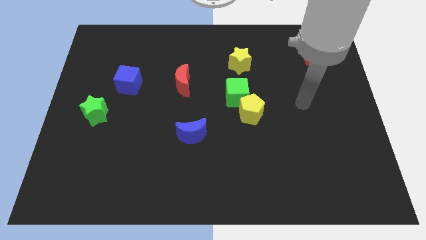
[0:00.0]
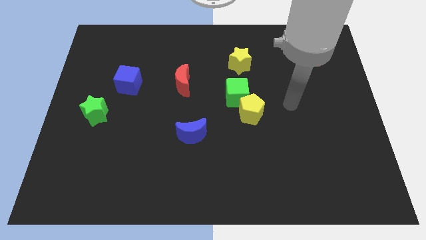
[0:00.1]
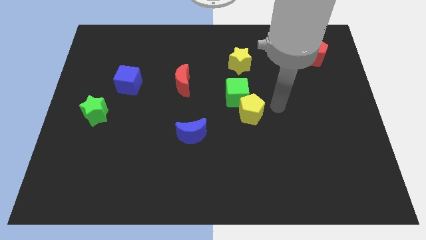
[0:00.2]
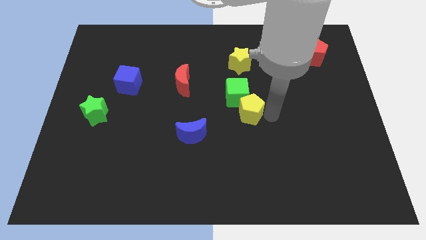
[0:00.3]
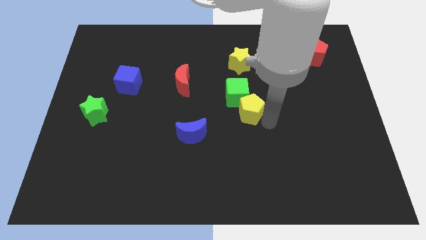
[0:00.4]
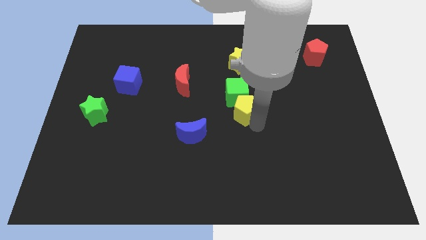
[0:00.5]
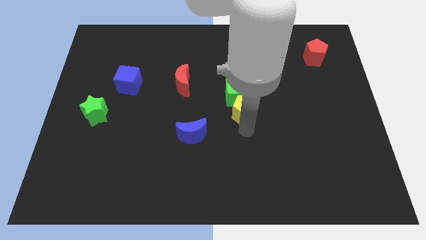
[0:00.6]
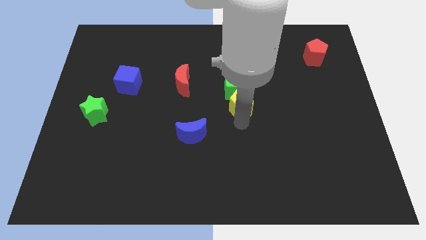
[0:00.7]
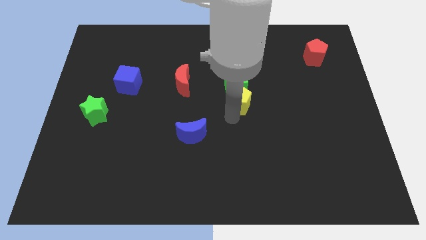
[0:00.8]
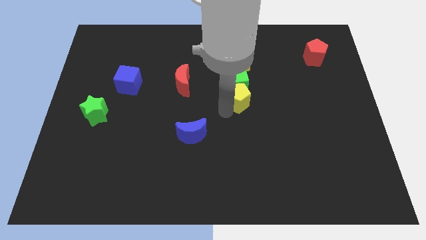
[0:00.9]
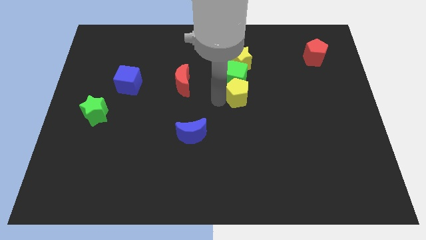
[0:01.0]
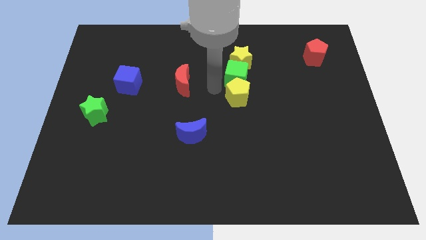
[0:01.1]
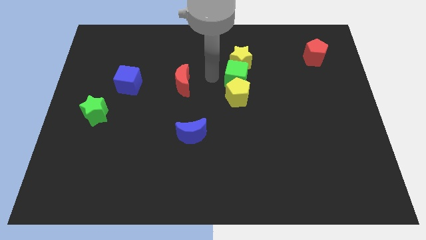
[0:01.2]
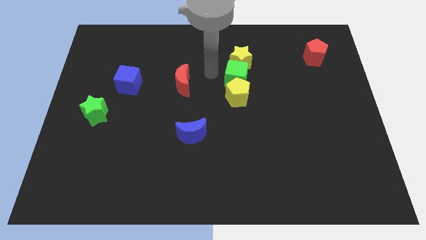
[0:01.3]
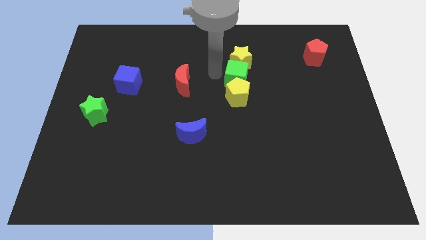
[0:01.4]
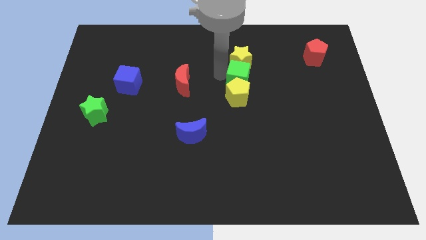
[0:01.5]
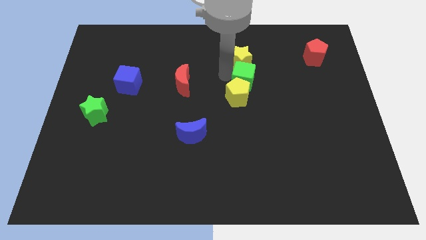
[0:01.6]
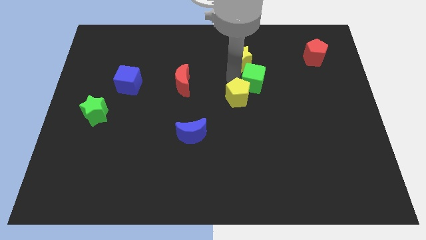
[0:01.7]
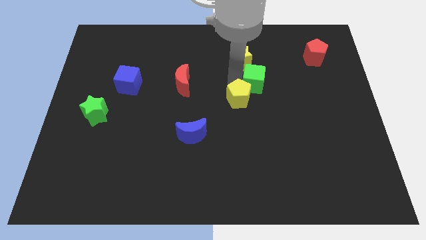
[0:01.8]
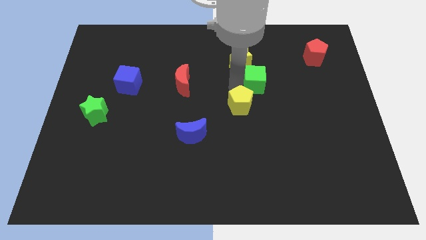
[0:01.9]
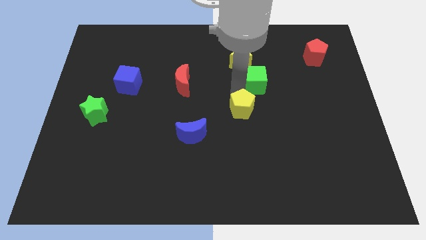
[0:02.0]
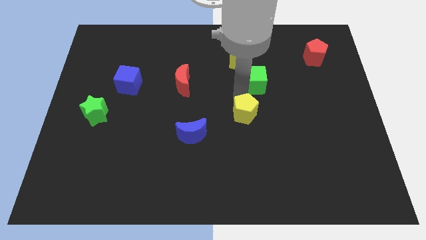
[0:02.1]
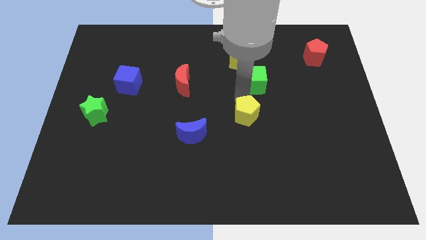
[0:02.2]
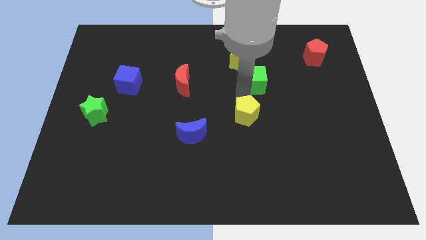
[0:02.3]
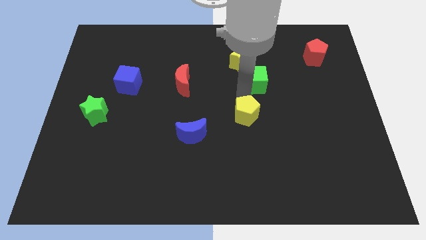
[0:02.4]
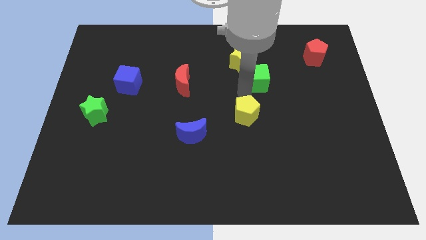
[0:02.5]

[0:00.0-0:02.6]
slightly slide the green cube diagonally upwards and right

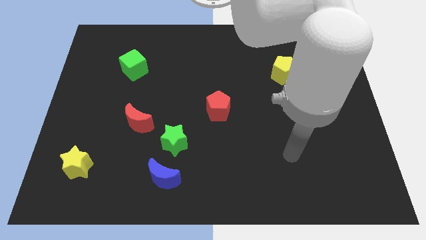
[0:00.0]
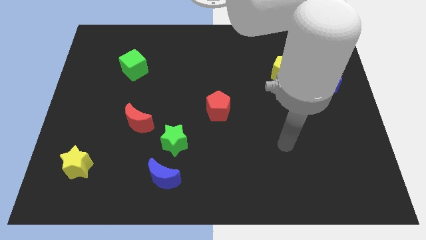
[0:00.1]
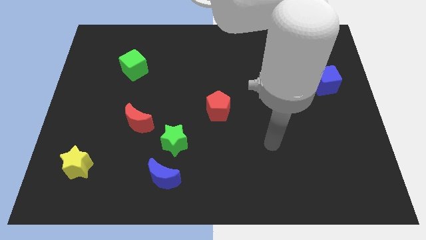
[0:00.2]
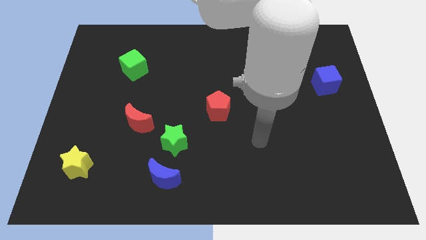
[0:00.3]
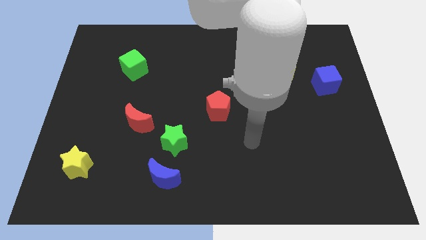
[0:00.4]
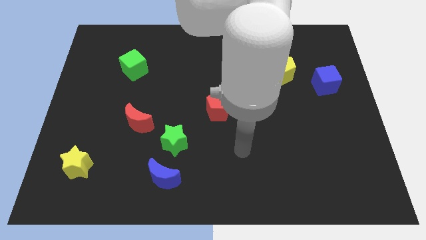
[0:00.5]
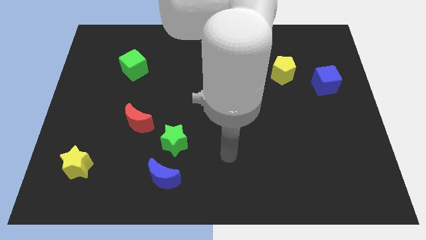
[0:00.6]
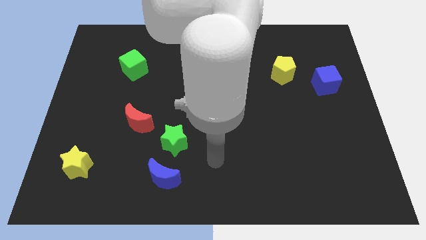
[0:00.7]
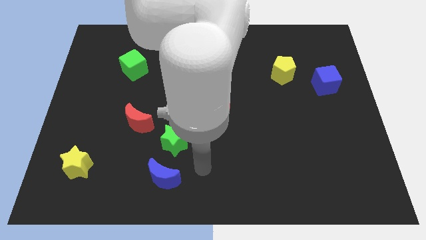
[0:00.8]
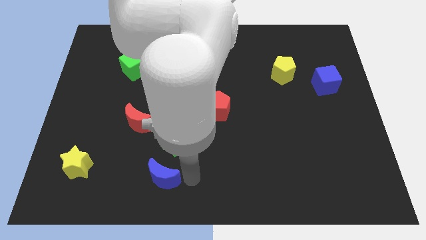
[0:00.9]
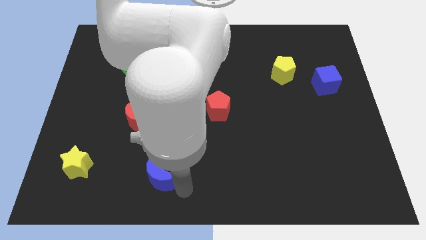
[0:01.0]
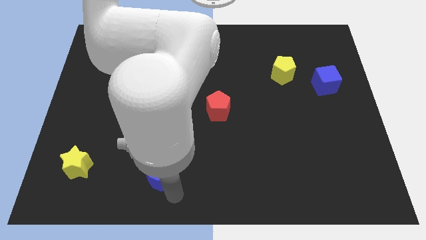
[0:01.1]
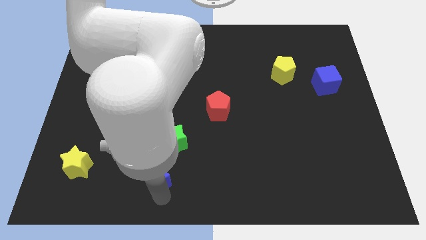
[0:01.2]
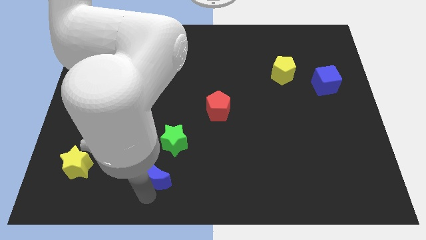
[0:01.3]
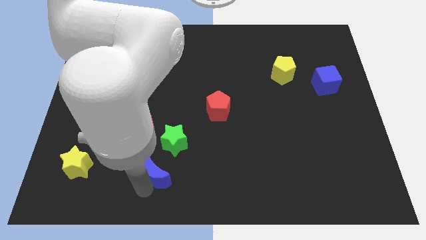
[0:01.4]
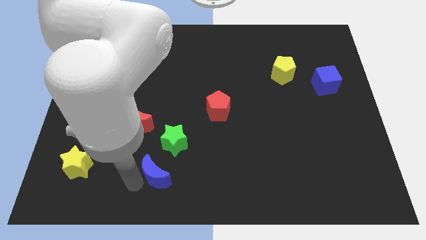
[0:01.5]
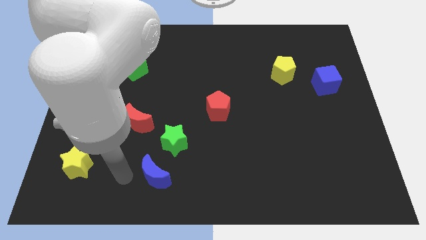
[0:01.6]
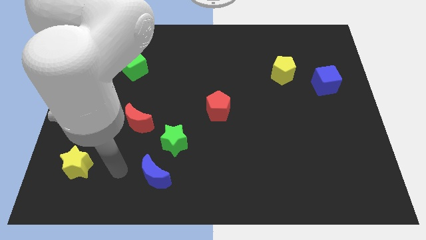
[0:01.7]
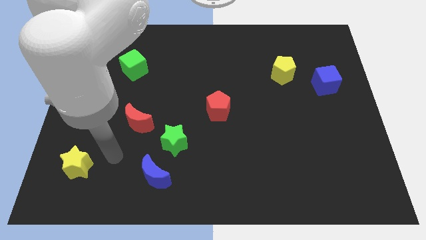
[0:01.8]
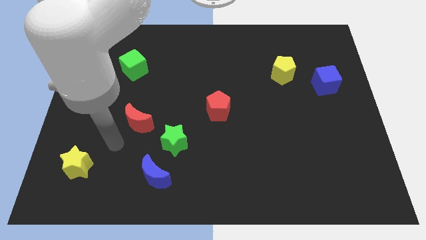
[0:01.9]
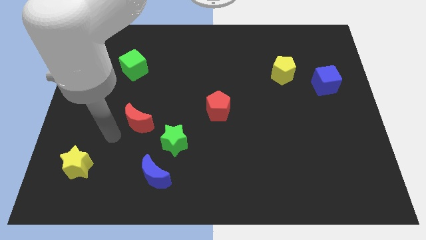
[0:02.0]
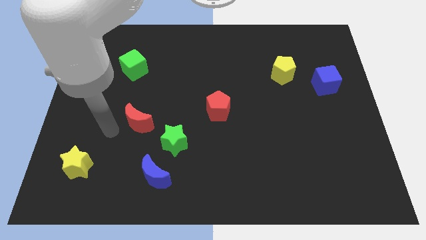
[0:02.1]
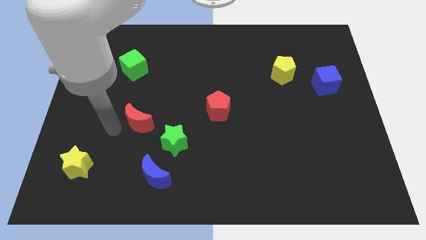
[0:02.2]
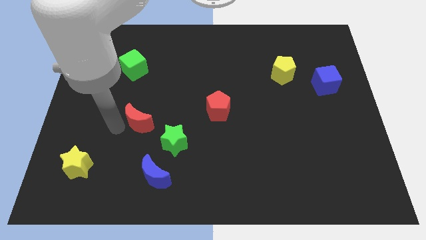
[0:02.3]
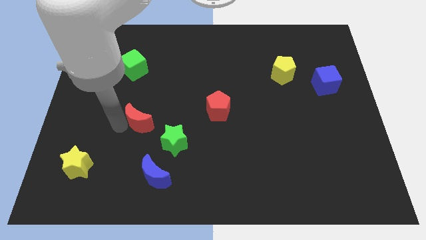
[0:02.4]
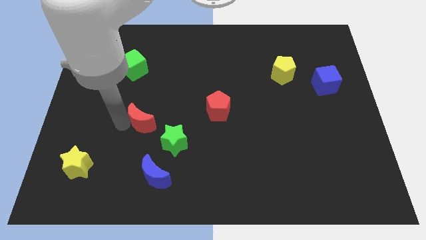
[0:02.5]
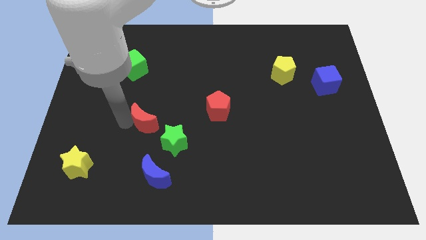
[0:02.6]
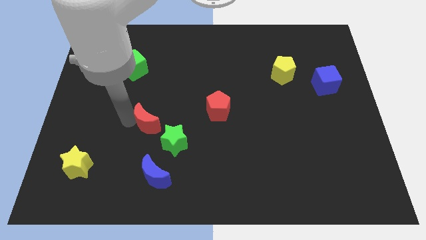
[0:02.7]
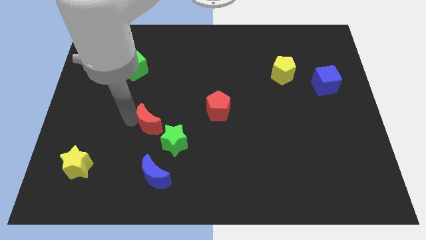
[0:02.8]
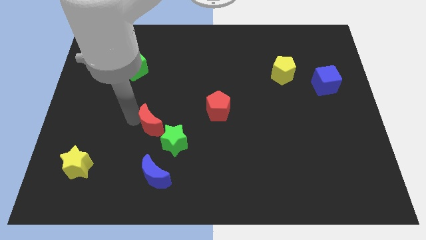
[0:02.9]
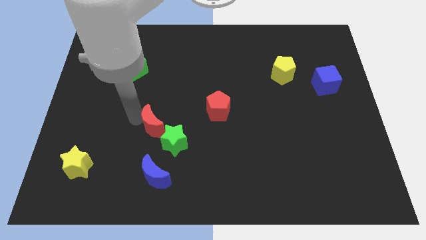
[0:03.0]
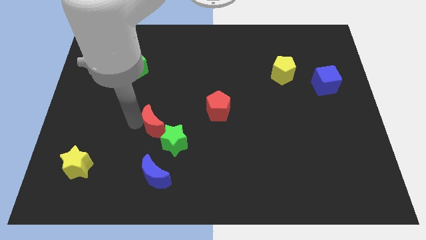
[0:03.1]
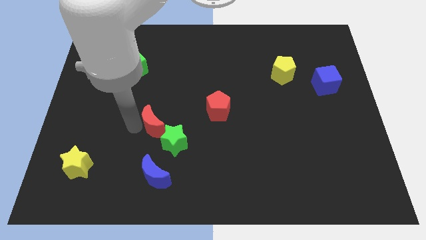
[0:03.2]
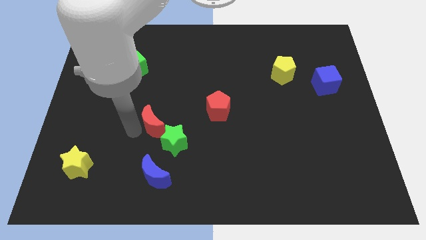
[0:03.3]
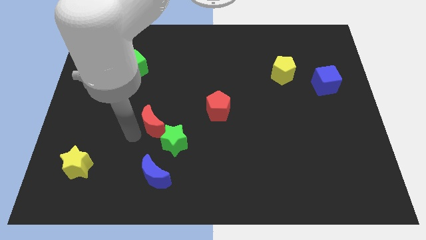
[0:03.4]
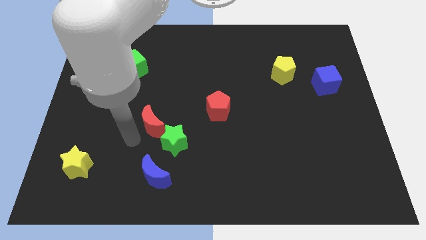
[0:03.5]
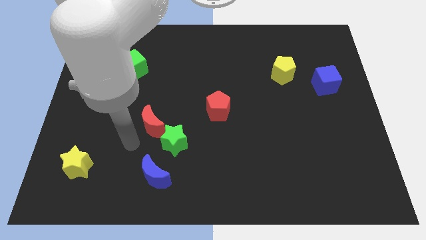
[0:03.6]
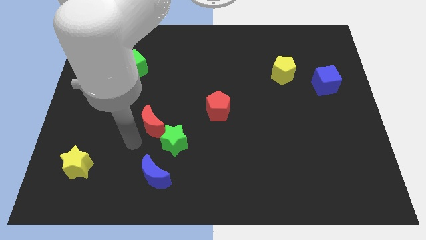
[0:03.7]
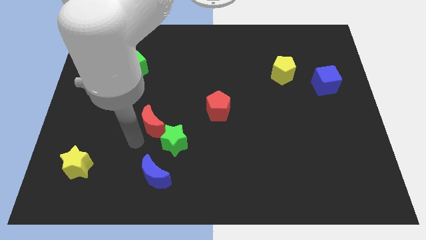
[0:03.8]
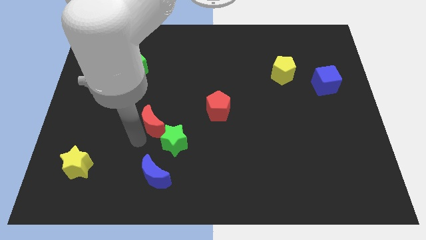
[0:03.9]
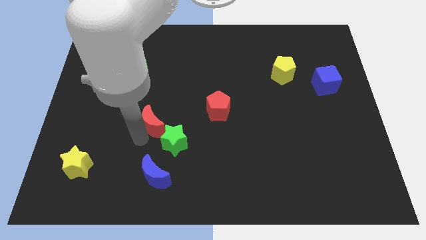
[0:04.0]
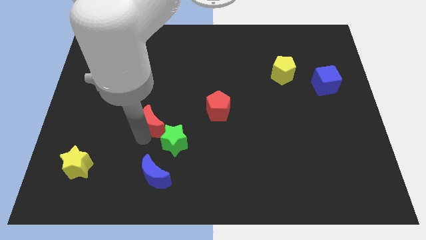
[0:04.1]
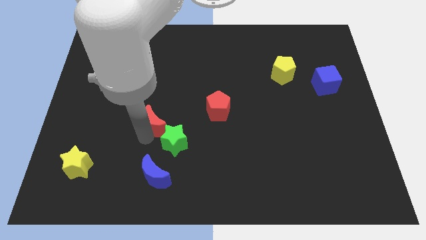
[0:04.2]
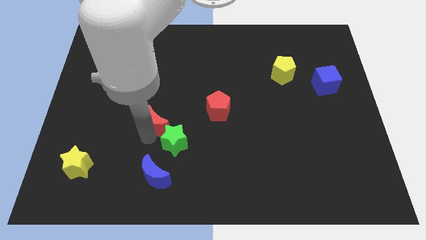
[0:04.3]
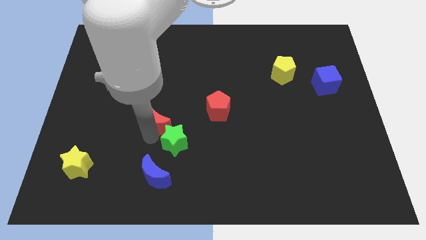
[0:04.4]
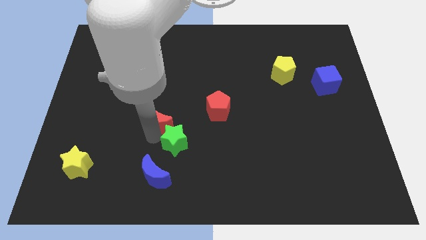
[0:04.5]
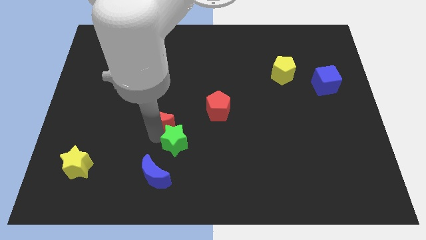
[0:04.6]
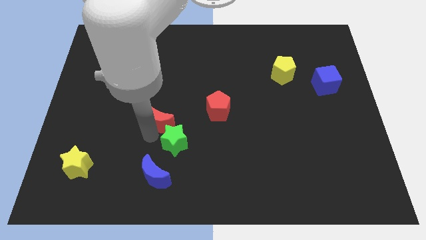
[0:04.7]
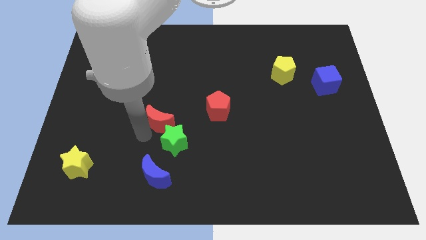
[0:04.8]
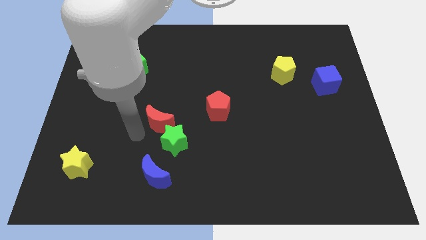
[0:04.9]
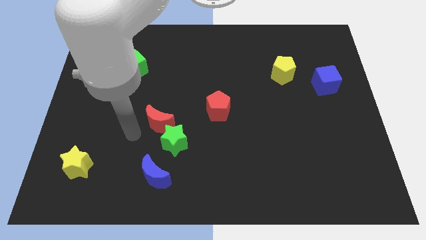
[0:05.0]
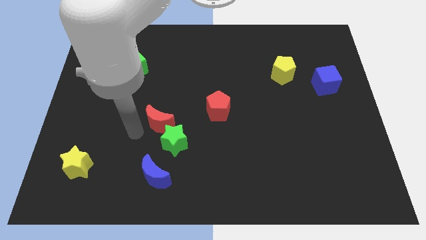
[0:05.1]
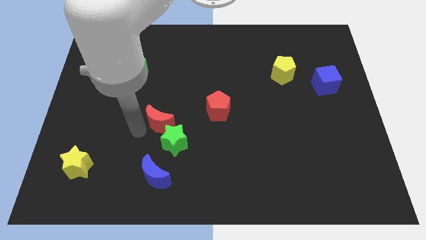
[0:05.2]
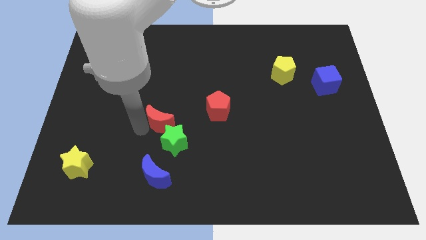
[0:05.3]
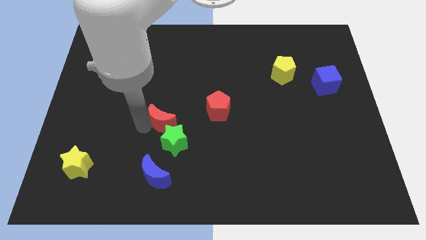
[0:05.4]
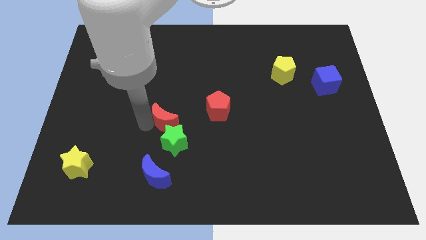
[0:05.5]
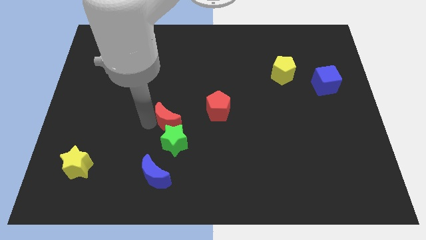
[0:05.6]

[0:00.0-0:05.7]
push the red moon to the right a little bit
